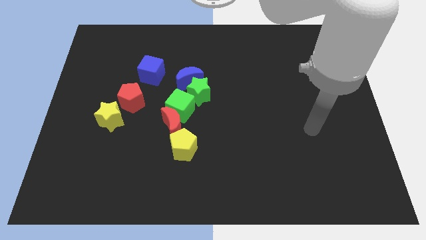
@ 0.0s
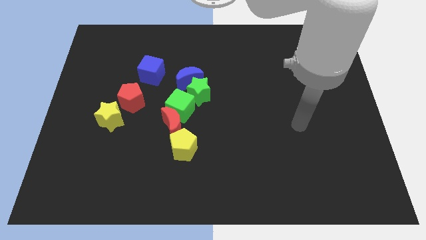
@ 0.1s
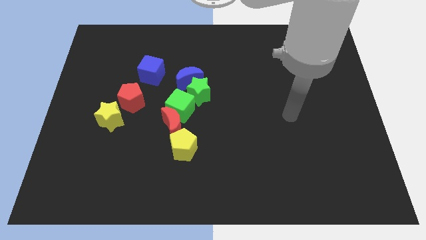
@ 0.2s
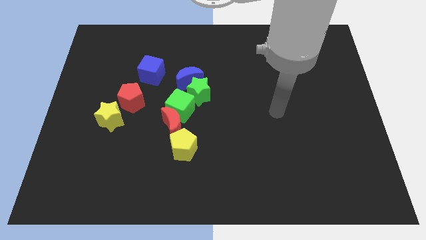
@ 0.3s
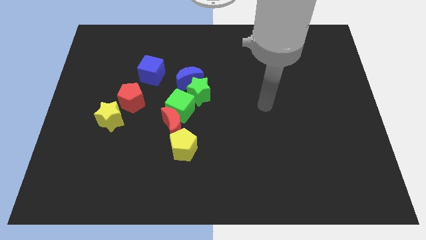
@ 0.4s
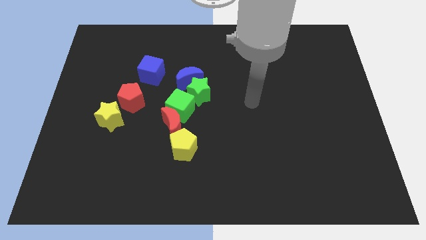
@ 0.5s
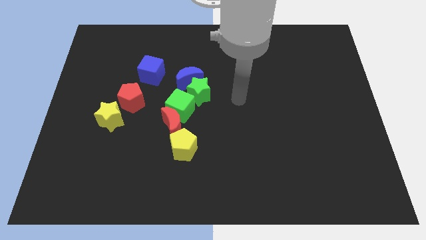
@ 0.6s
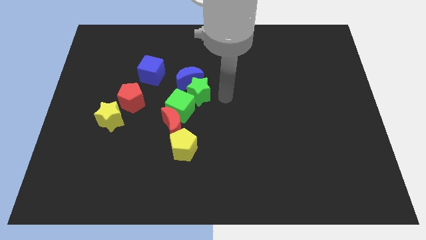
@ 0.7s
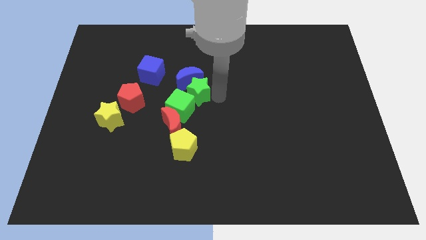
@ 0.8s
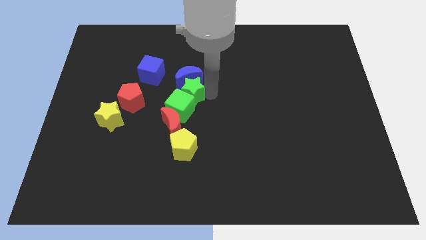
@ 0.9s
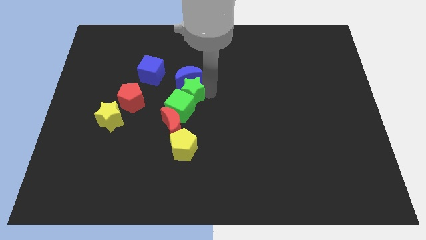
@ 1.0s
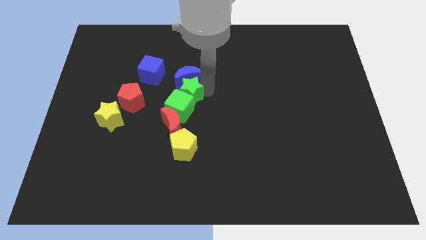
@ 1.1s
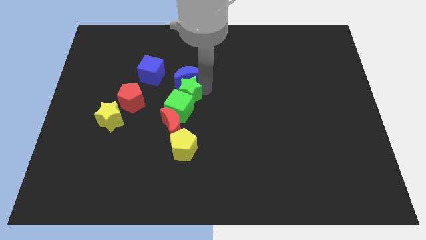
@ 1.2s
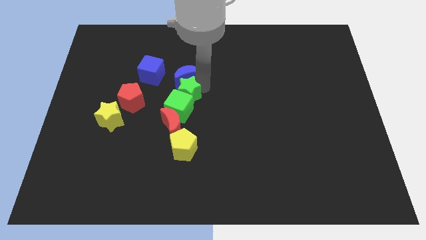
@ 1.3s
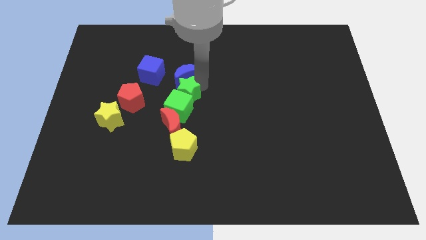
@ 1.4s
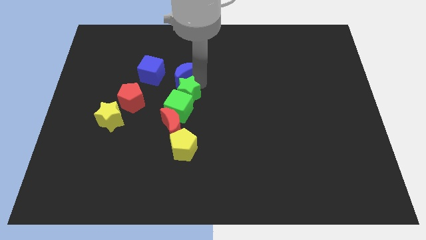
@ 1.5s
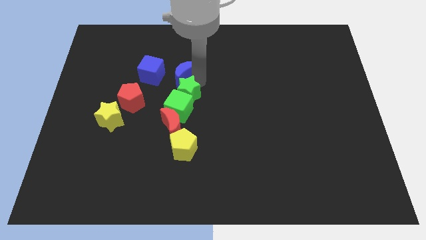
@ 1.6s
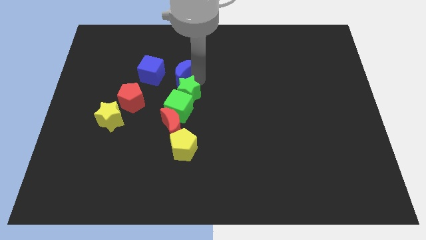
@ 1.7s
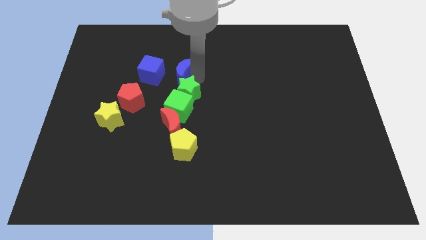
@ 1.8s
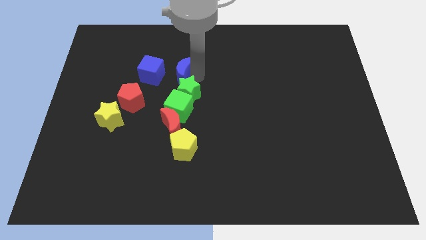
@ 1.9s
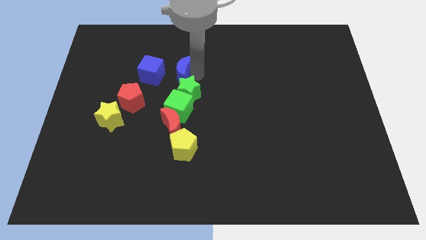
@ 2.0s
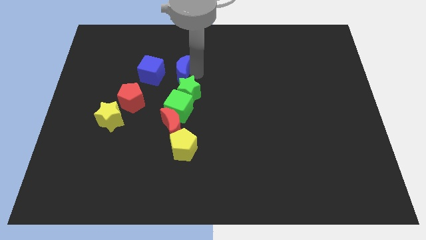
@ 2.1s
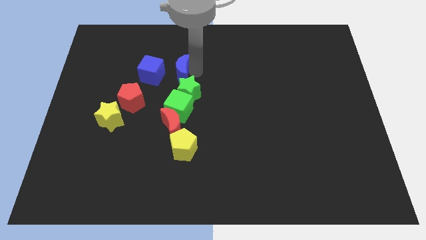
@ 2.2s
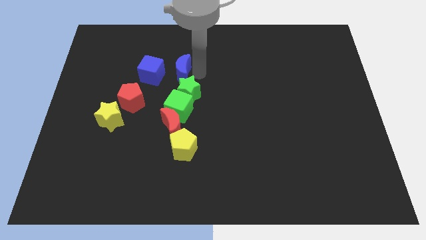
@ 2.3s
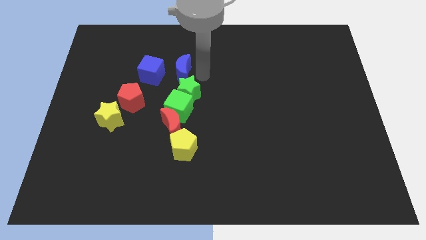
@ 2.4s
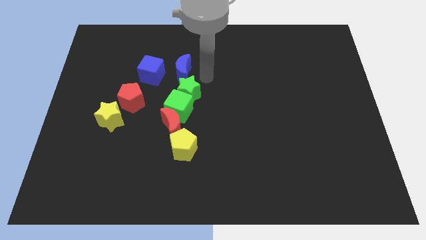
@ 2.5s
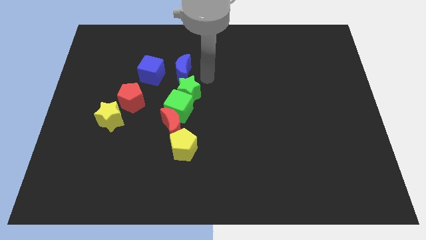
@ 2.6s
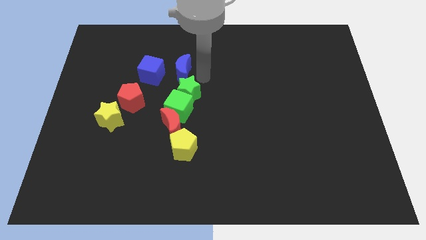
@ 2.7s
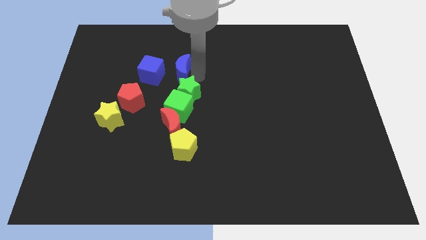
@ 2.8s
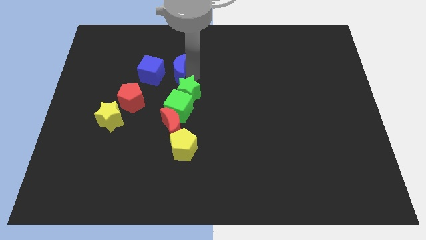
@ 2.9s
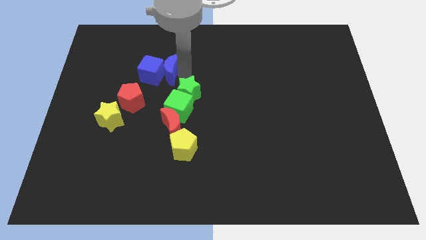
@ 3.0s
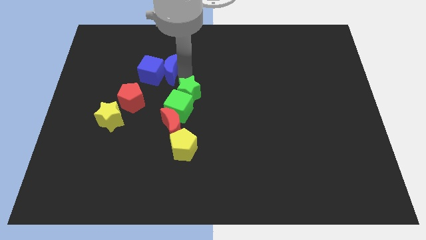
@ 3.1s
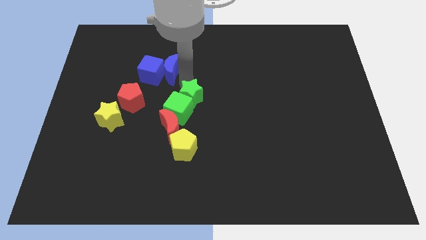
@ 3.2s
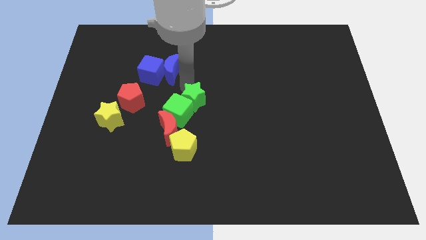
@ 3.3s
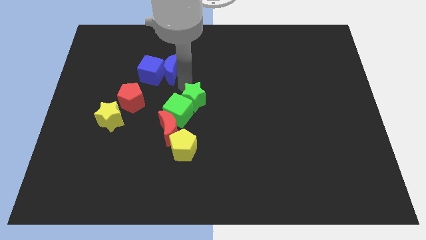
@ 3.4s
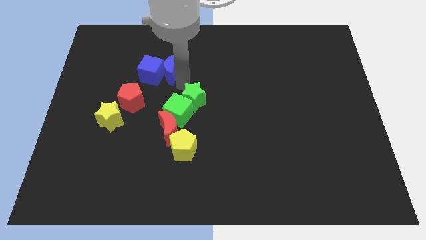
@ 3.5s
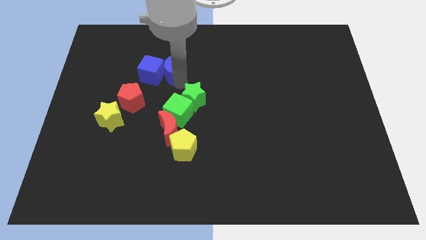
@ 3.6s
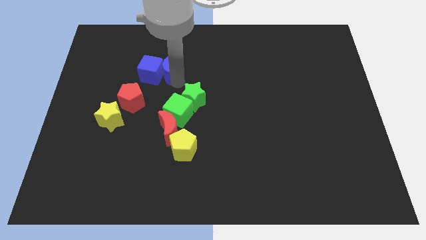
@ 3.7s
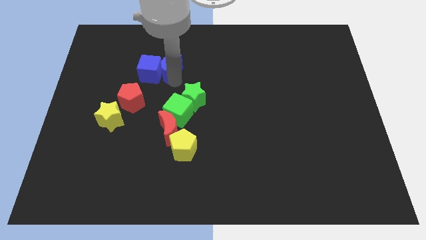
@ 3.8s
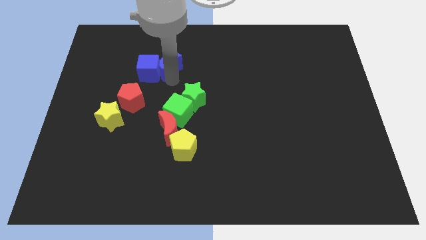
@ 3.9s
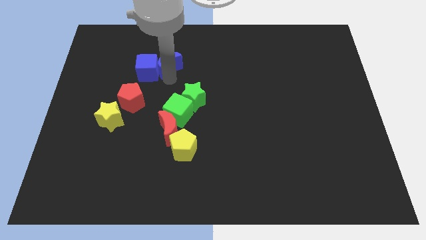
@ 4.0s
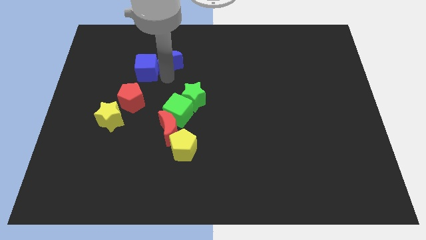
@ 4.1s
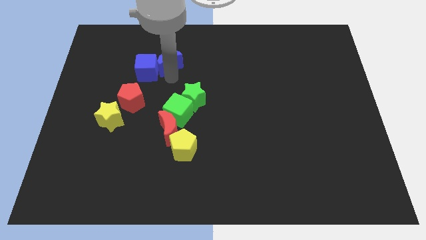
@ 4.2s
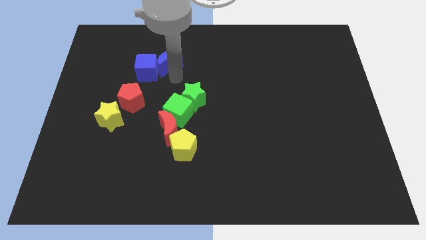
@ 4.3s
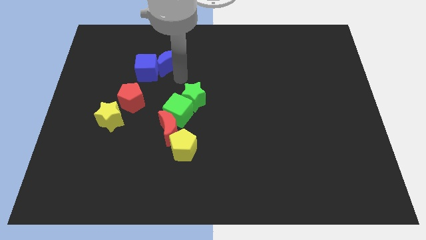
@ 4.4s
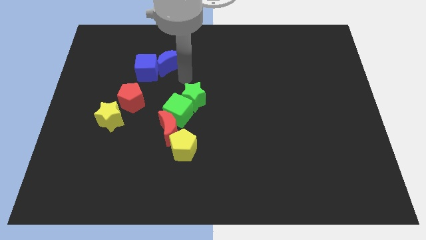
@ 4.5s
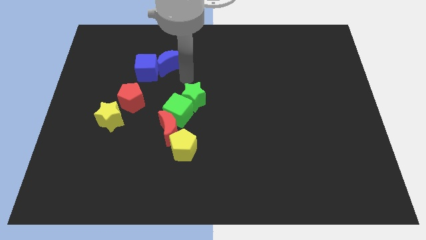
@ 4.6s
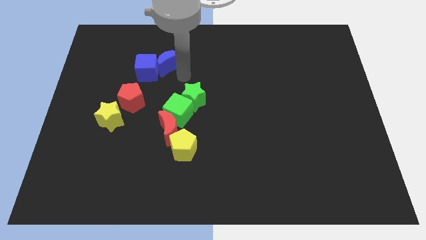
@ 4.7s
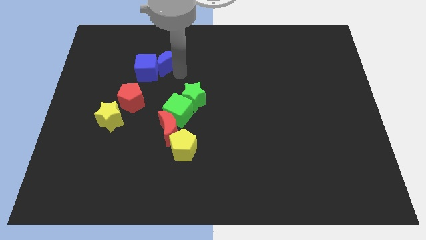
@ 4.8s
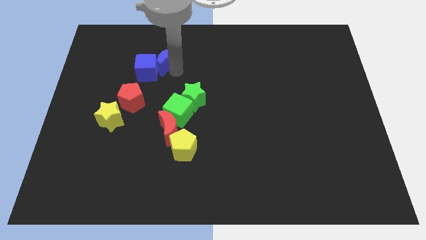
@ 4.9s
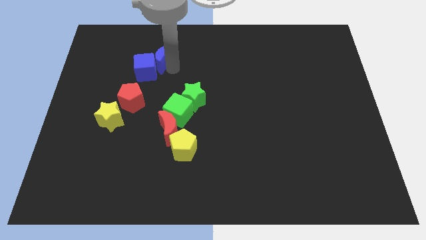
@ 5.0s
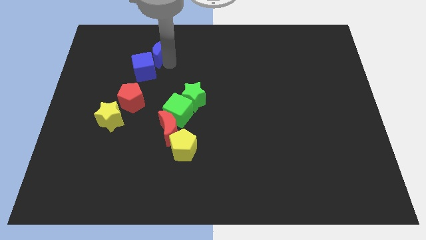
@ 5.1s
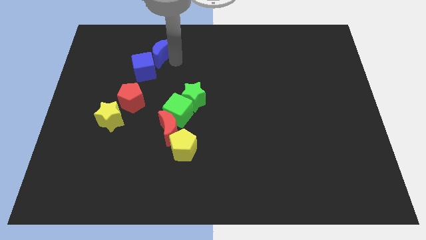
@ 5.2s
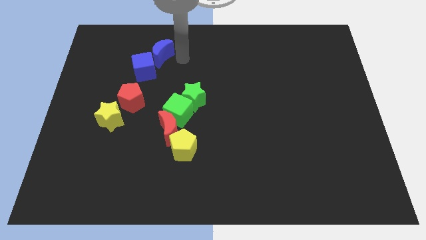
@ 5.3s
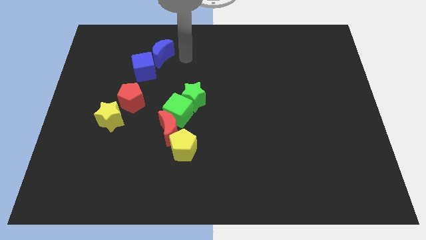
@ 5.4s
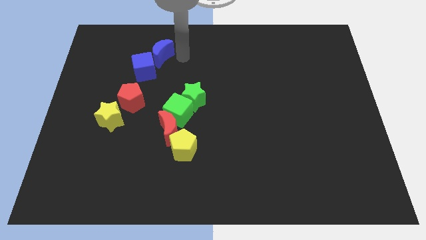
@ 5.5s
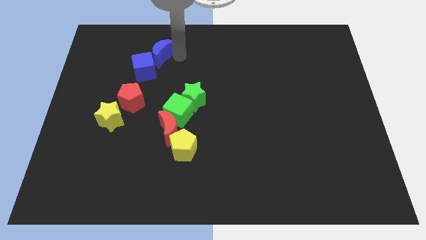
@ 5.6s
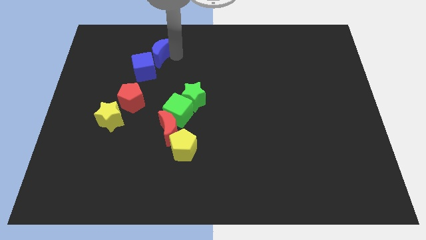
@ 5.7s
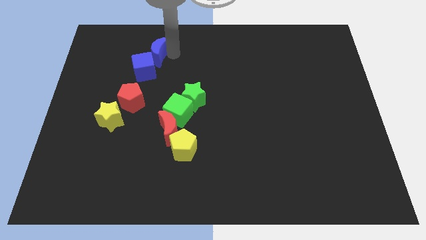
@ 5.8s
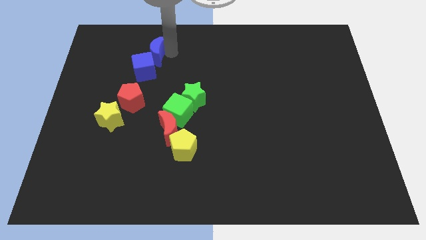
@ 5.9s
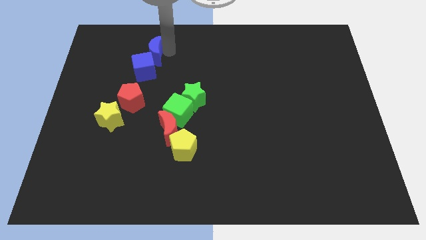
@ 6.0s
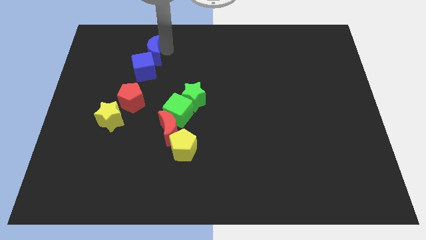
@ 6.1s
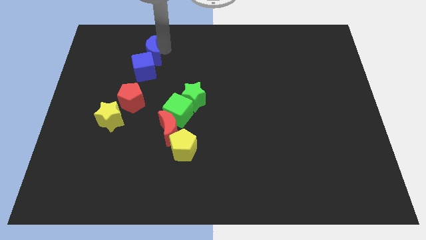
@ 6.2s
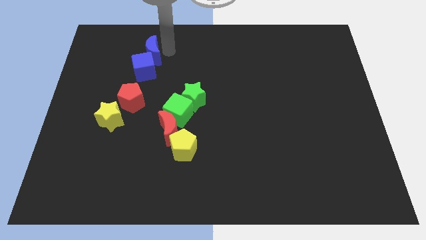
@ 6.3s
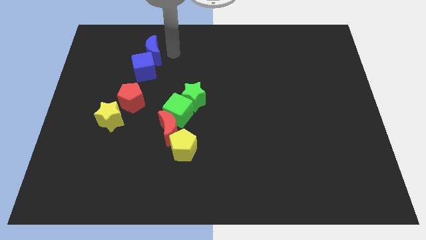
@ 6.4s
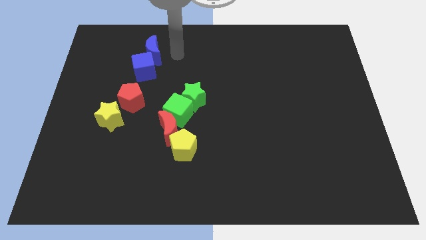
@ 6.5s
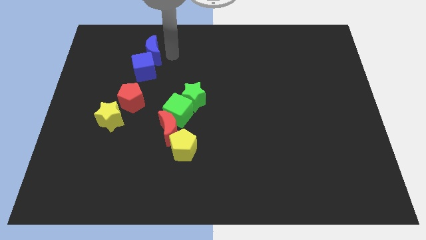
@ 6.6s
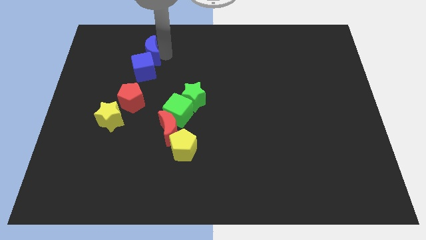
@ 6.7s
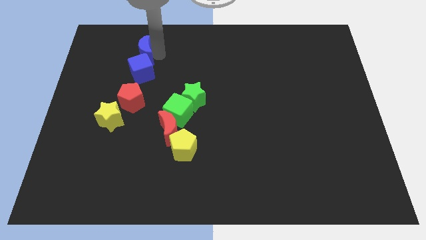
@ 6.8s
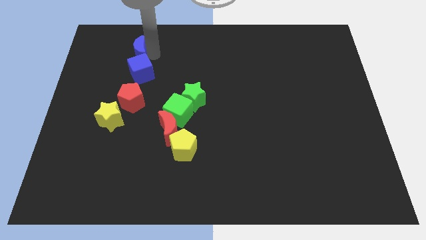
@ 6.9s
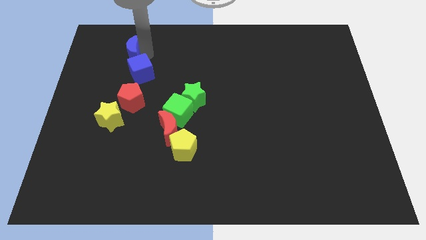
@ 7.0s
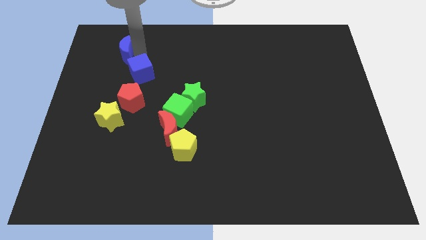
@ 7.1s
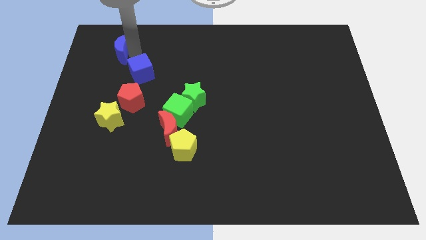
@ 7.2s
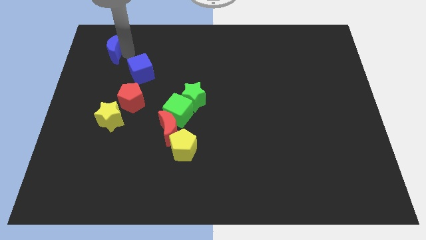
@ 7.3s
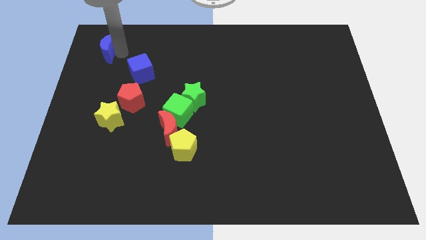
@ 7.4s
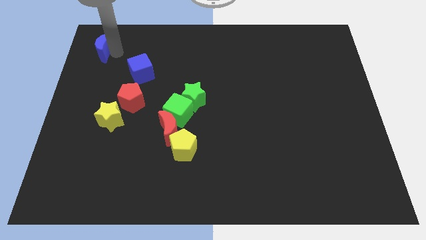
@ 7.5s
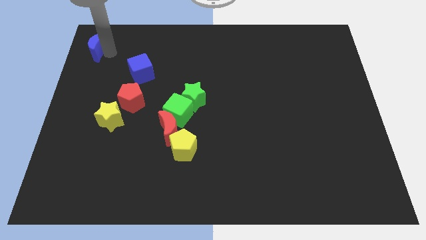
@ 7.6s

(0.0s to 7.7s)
push the blue moon to the top left of the board
